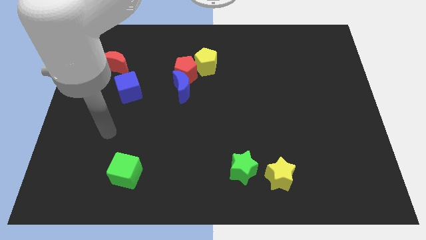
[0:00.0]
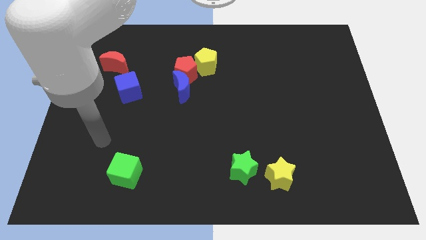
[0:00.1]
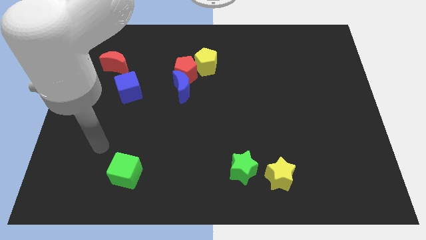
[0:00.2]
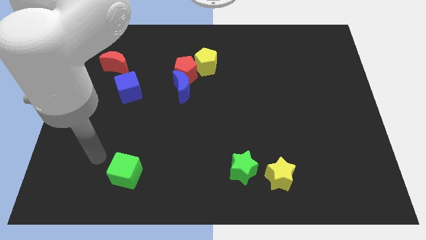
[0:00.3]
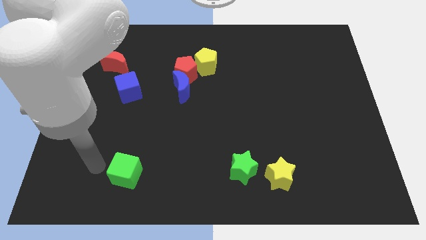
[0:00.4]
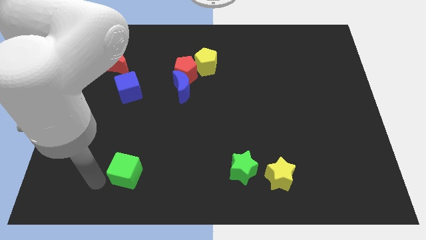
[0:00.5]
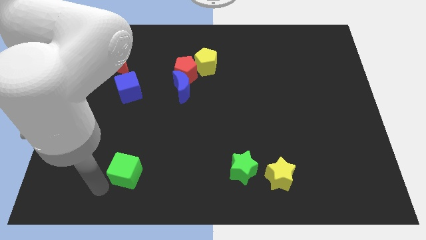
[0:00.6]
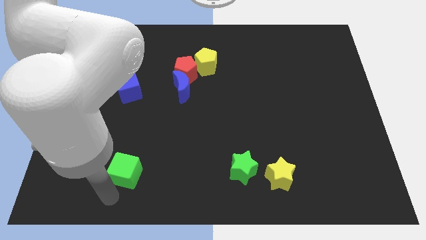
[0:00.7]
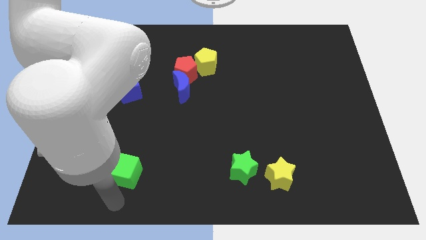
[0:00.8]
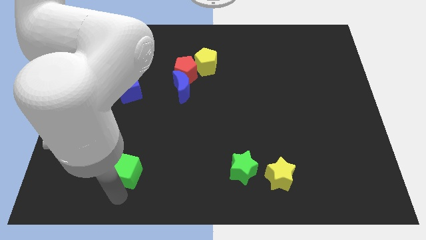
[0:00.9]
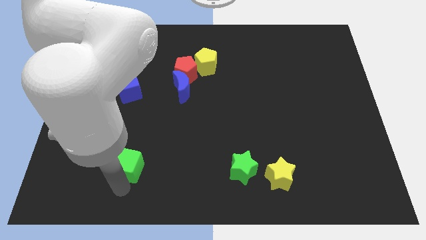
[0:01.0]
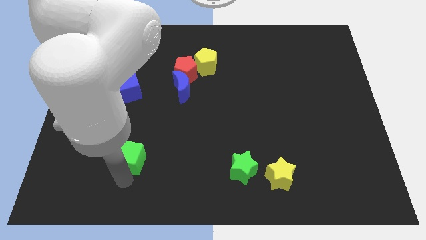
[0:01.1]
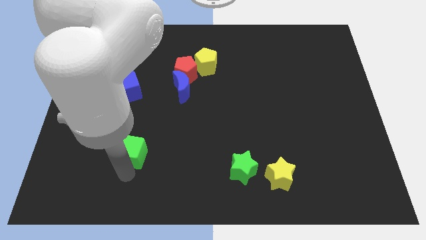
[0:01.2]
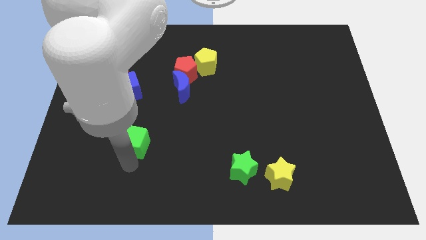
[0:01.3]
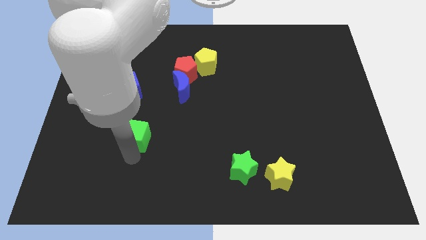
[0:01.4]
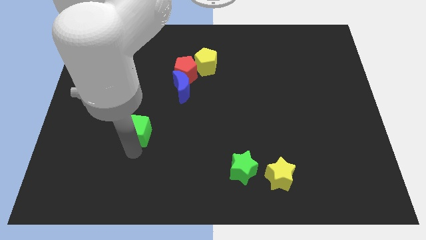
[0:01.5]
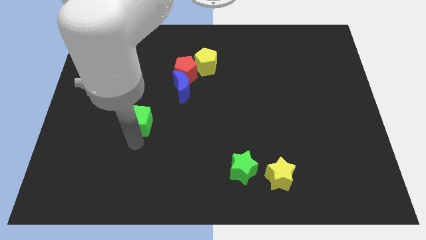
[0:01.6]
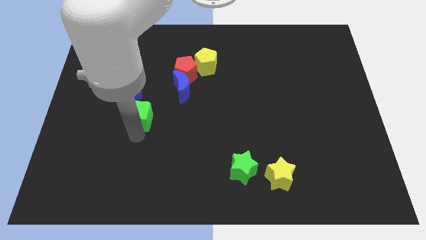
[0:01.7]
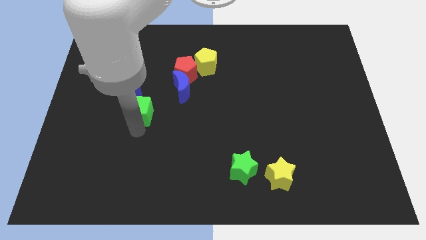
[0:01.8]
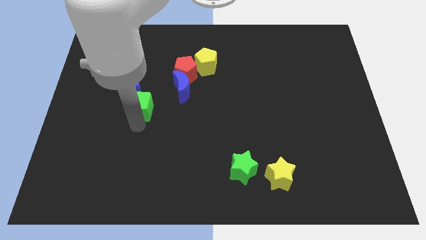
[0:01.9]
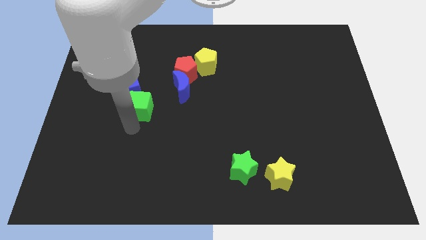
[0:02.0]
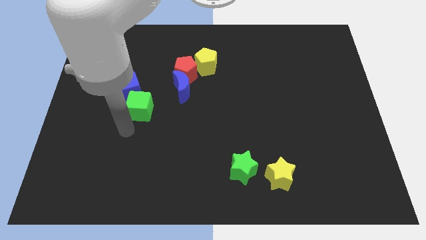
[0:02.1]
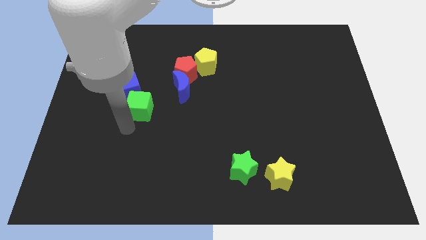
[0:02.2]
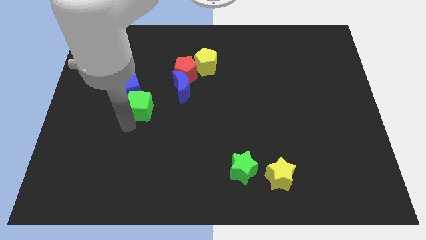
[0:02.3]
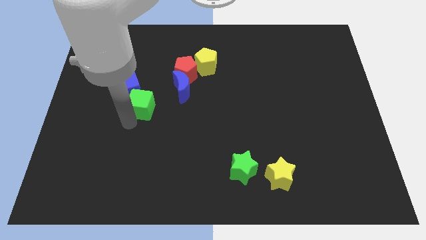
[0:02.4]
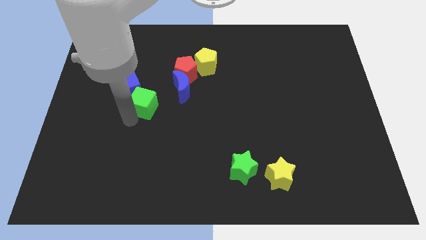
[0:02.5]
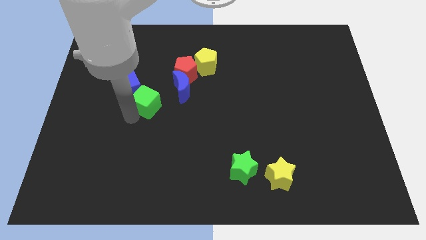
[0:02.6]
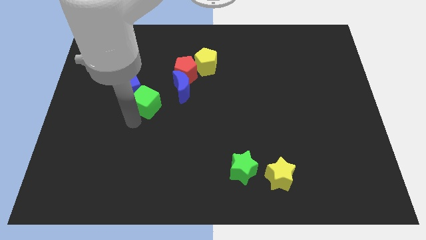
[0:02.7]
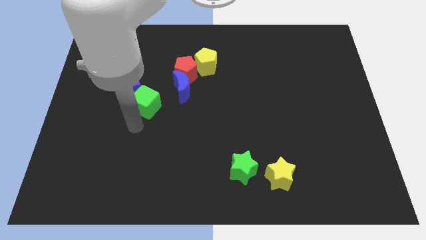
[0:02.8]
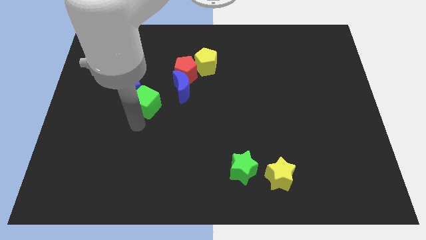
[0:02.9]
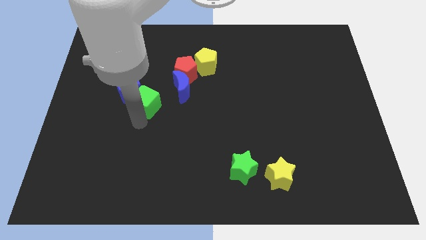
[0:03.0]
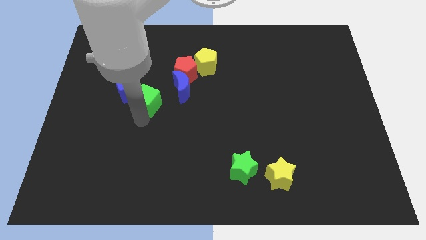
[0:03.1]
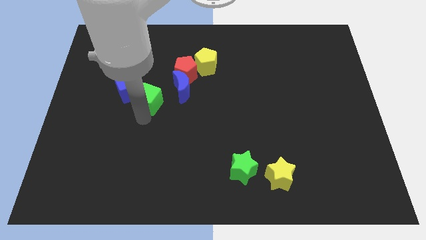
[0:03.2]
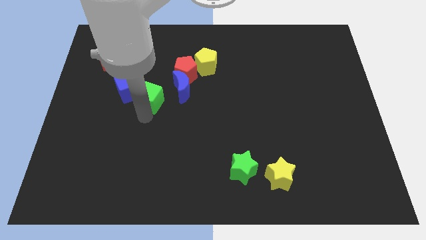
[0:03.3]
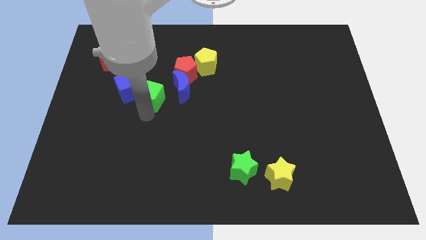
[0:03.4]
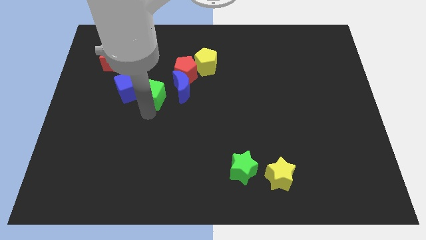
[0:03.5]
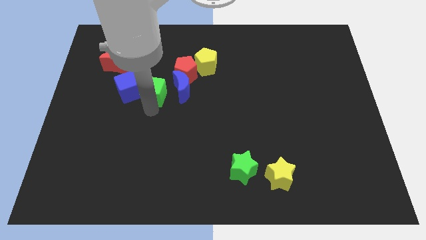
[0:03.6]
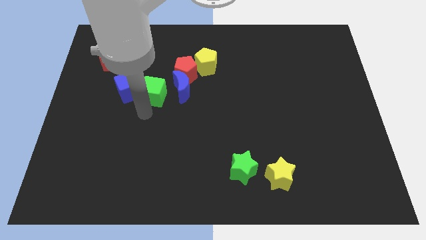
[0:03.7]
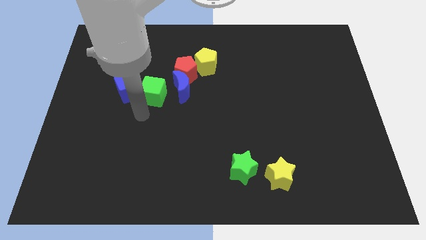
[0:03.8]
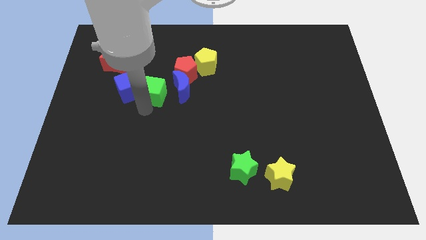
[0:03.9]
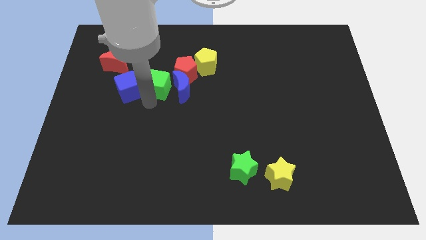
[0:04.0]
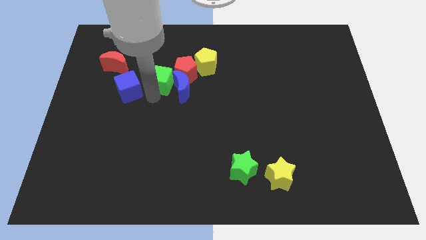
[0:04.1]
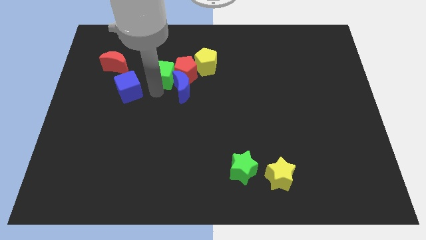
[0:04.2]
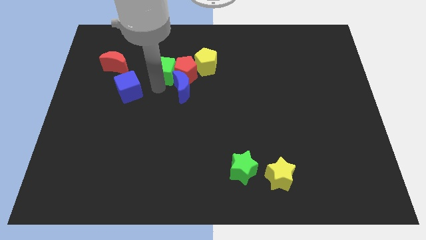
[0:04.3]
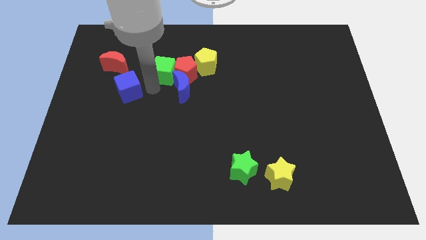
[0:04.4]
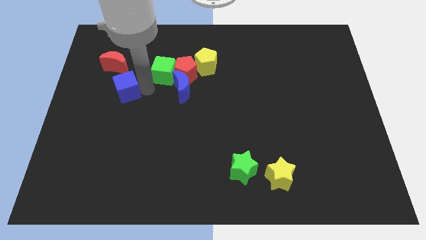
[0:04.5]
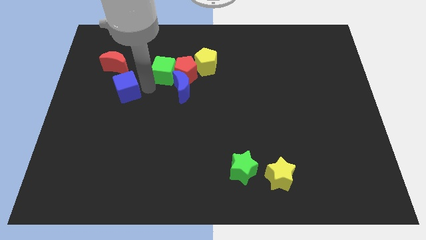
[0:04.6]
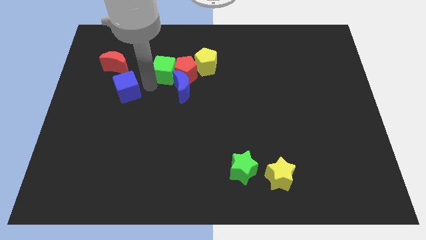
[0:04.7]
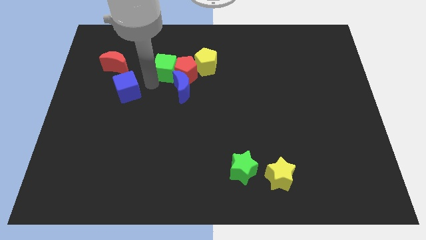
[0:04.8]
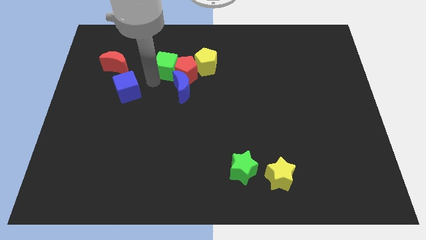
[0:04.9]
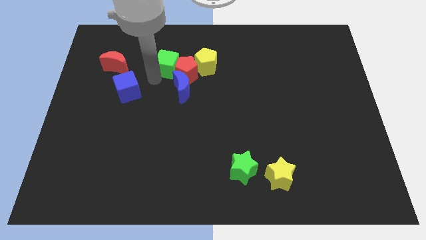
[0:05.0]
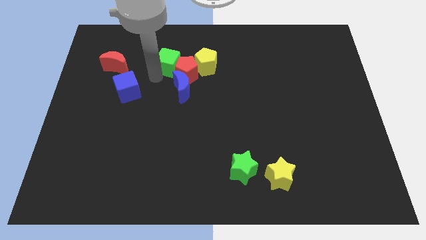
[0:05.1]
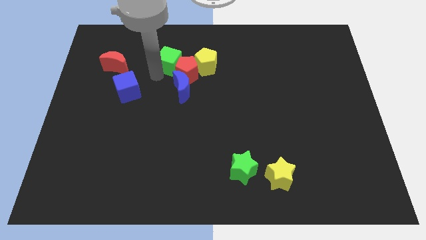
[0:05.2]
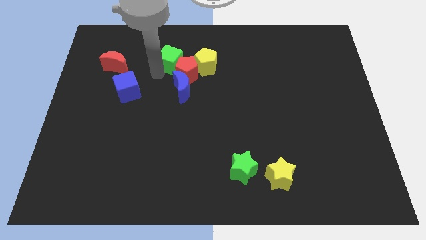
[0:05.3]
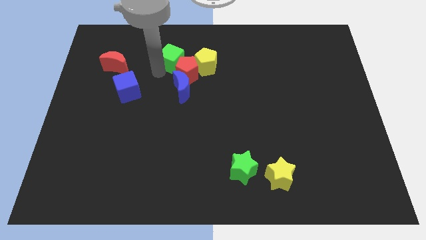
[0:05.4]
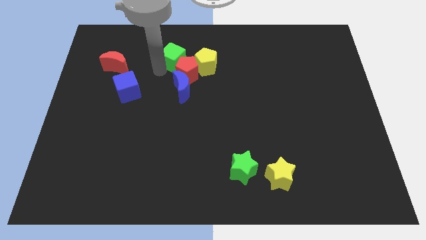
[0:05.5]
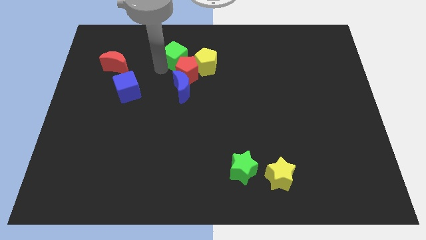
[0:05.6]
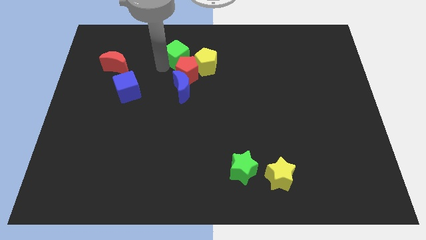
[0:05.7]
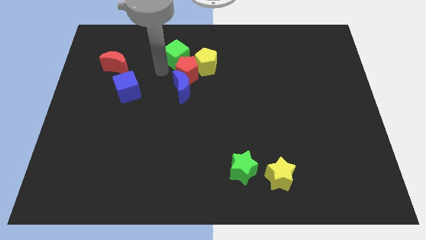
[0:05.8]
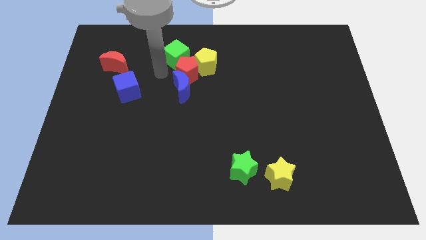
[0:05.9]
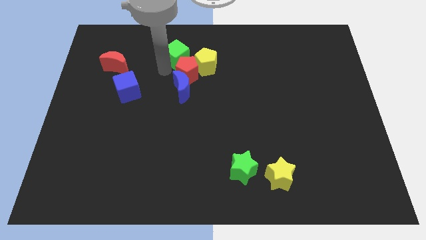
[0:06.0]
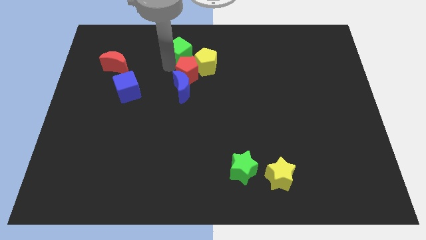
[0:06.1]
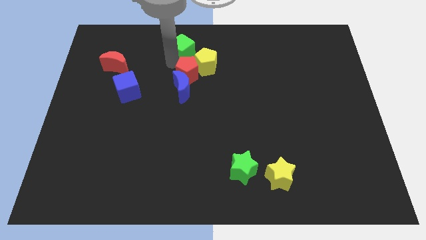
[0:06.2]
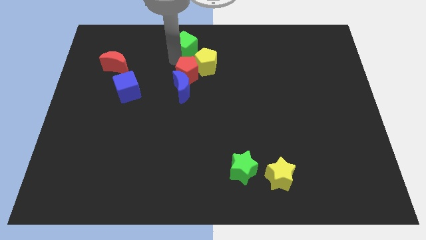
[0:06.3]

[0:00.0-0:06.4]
slide the green cube to the towards your base
